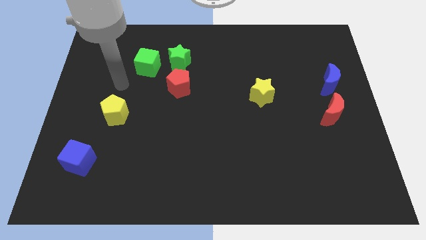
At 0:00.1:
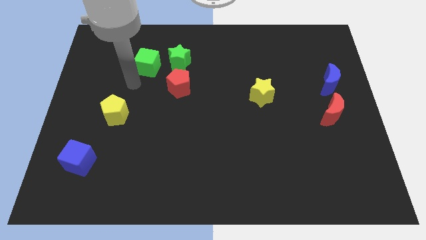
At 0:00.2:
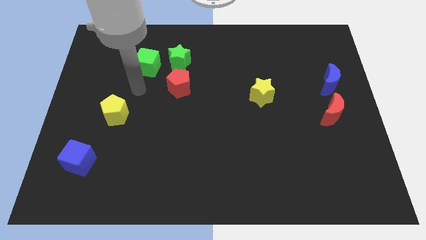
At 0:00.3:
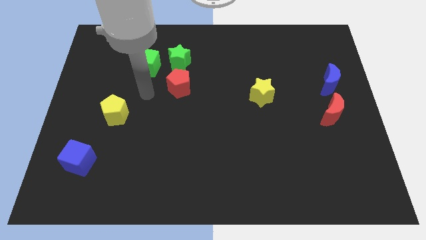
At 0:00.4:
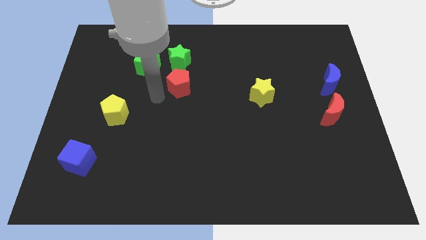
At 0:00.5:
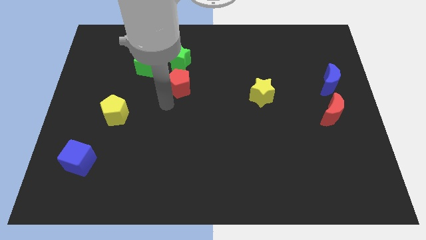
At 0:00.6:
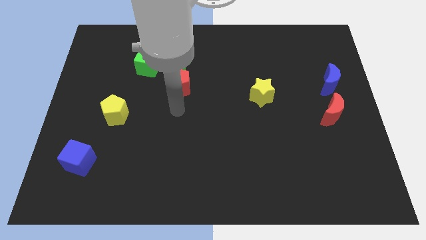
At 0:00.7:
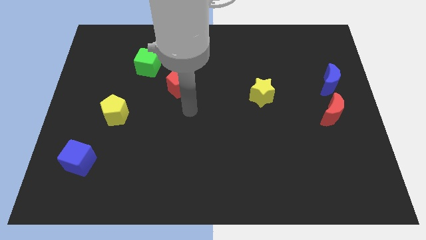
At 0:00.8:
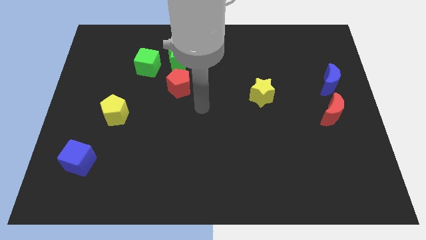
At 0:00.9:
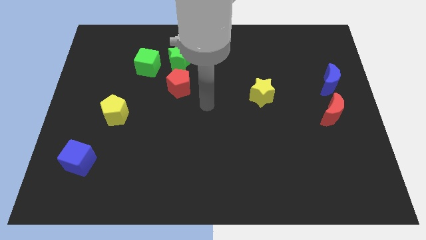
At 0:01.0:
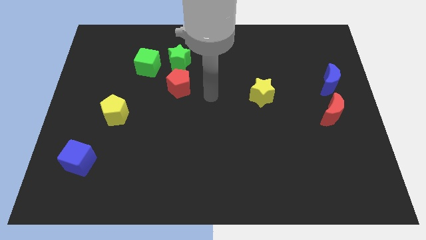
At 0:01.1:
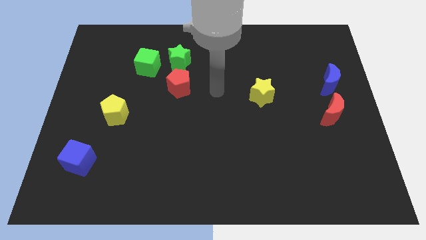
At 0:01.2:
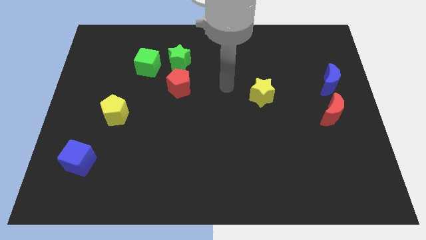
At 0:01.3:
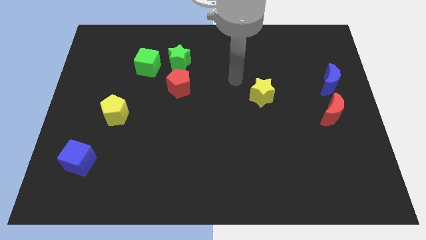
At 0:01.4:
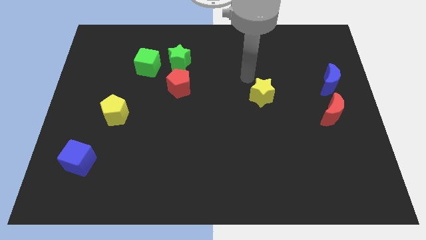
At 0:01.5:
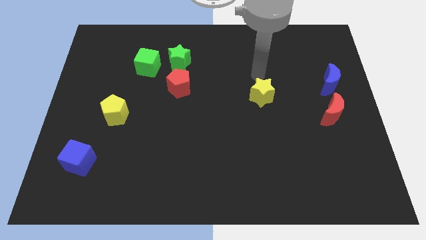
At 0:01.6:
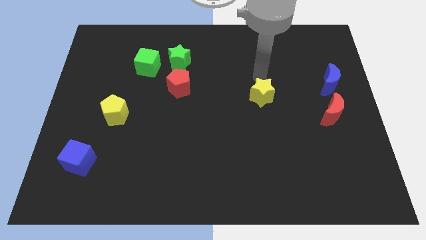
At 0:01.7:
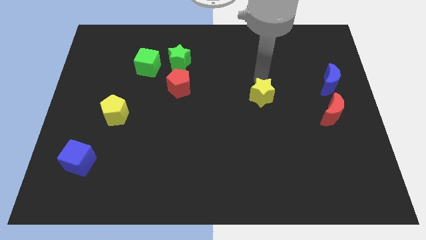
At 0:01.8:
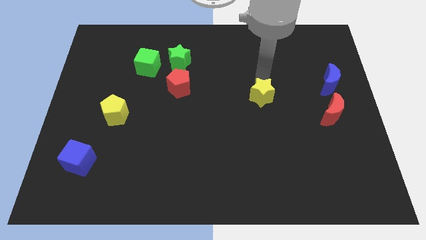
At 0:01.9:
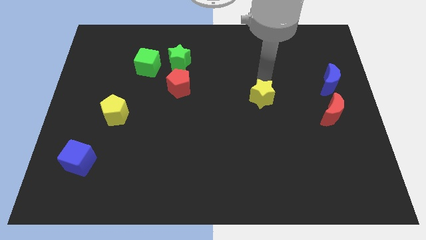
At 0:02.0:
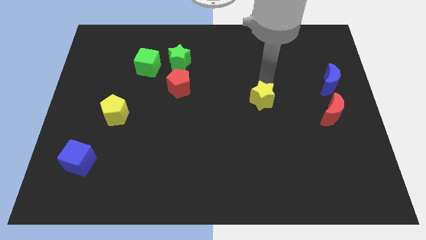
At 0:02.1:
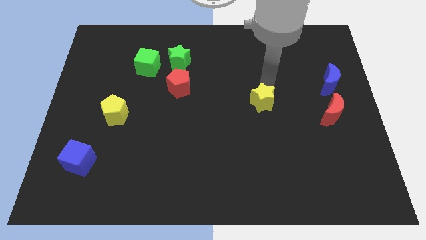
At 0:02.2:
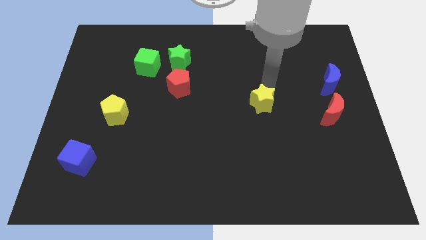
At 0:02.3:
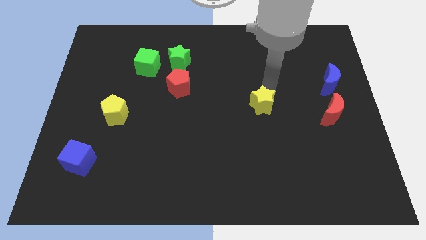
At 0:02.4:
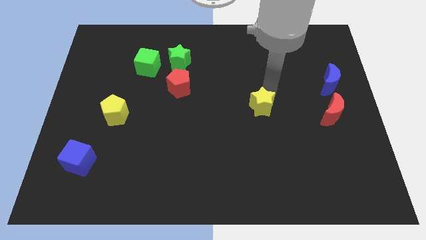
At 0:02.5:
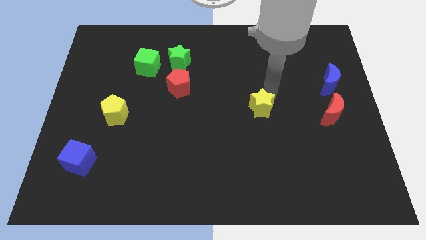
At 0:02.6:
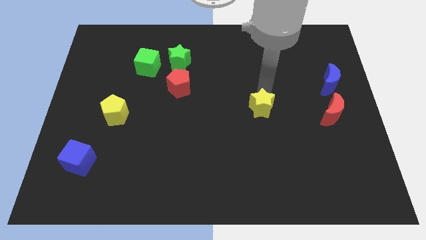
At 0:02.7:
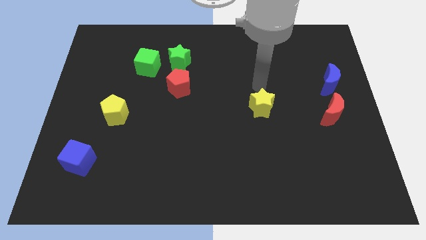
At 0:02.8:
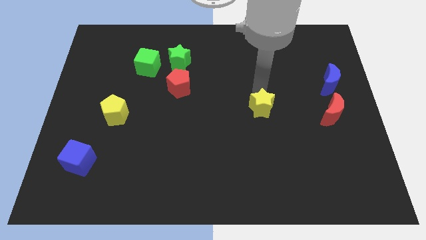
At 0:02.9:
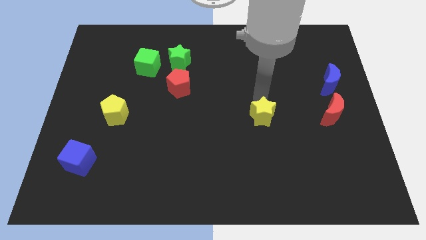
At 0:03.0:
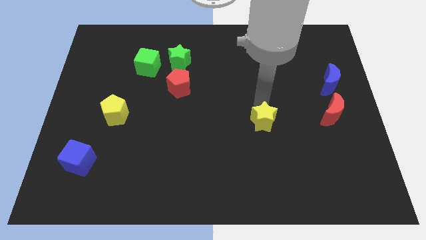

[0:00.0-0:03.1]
slide the yellow star downwards a bit

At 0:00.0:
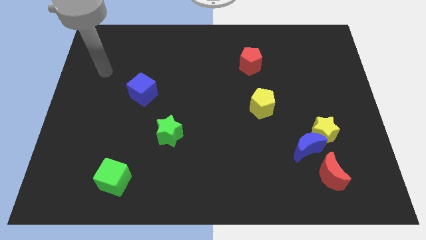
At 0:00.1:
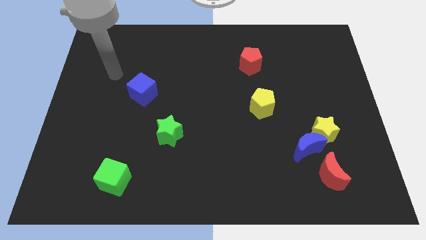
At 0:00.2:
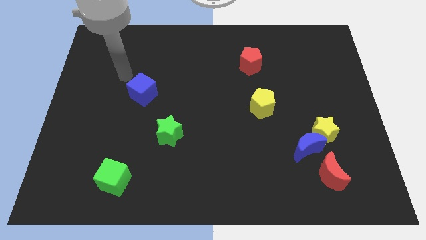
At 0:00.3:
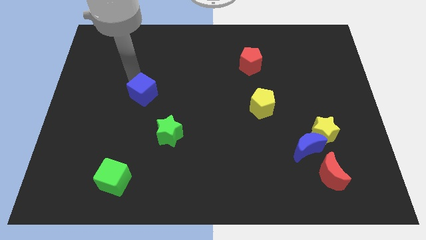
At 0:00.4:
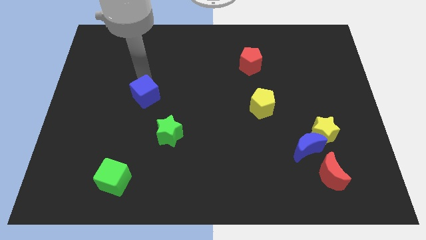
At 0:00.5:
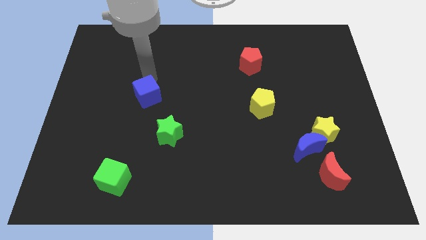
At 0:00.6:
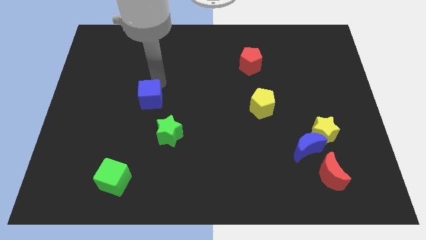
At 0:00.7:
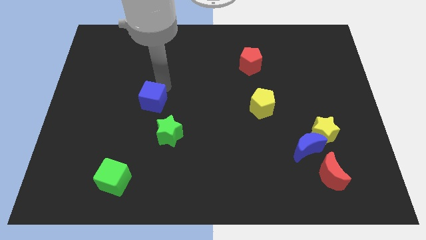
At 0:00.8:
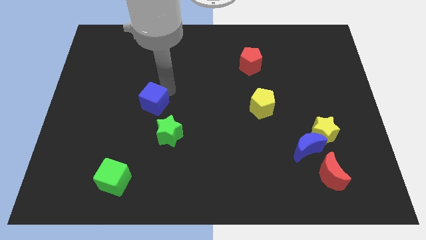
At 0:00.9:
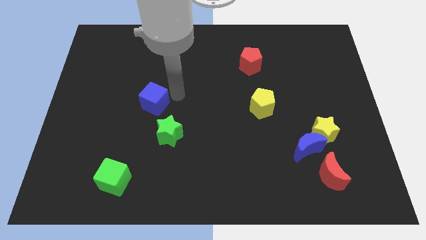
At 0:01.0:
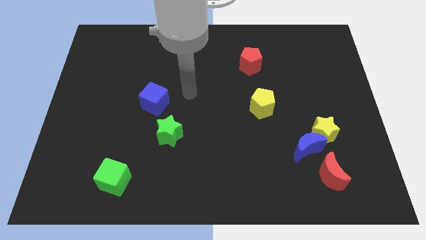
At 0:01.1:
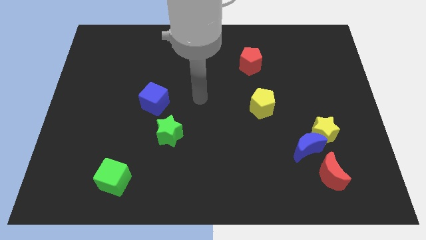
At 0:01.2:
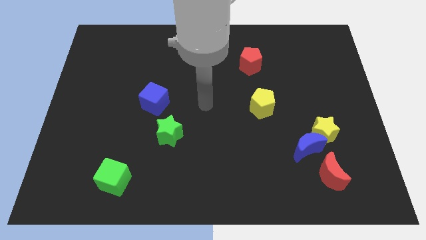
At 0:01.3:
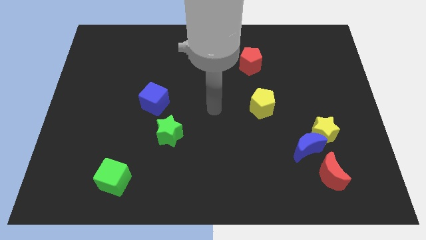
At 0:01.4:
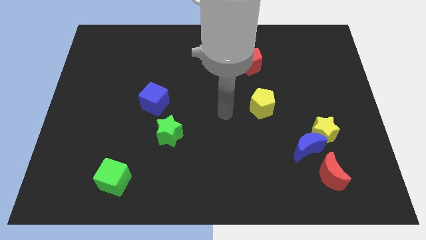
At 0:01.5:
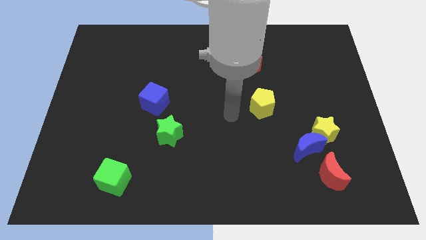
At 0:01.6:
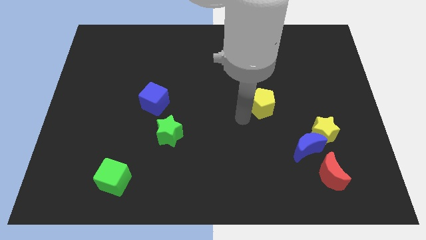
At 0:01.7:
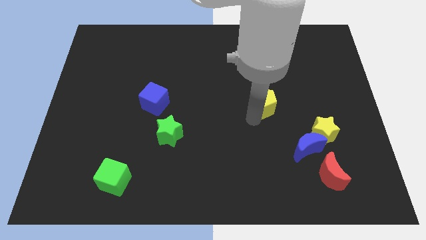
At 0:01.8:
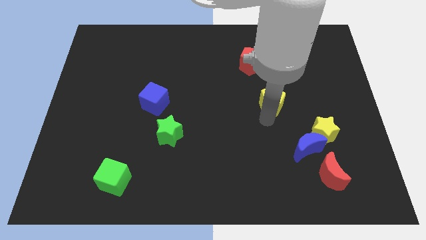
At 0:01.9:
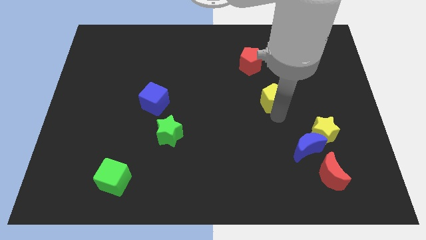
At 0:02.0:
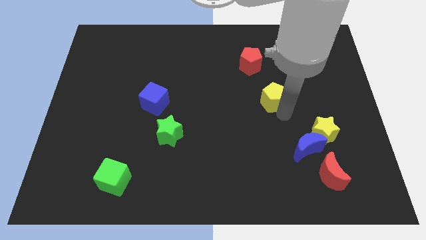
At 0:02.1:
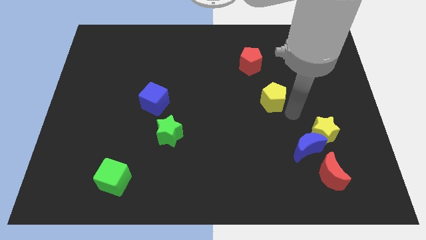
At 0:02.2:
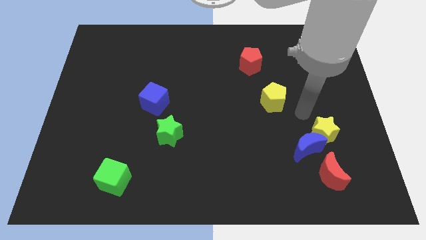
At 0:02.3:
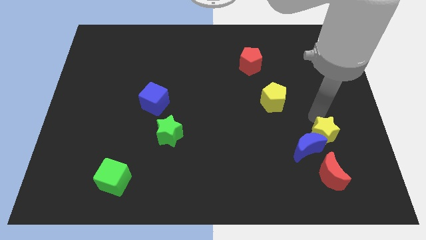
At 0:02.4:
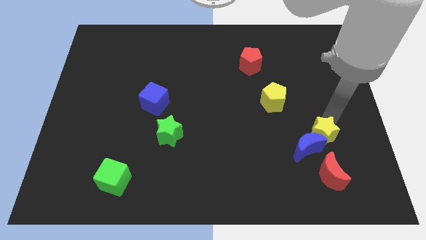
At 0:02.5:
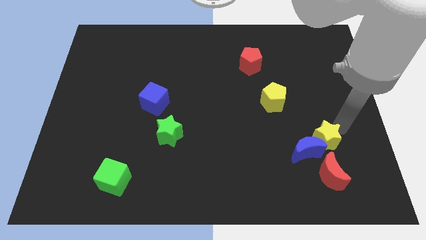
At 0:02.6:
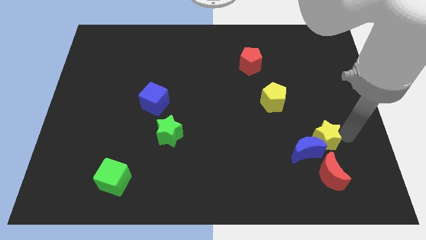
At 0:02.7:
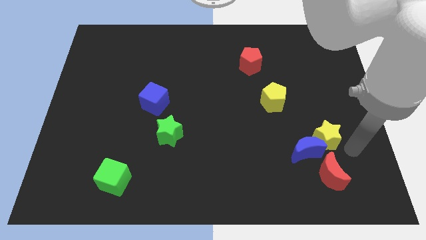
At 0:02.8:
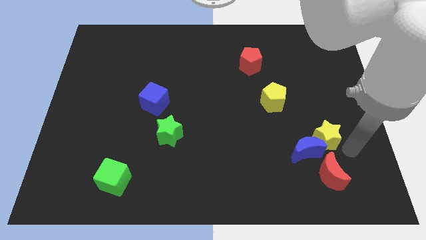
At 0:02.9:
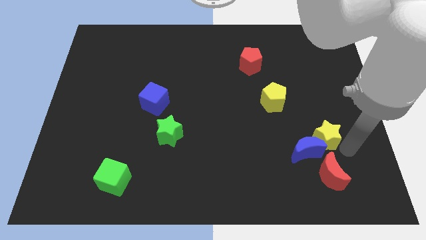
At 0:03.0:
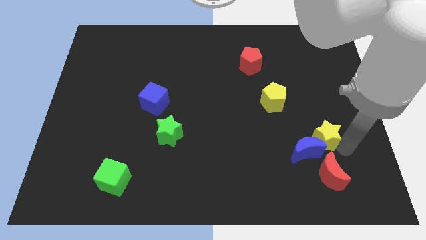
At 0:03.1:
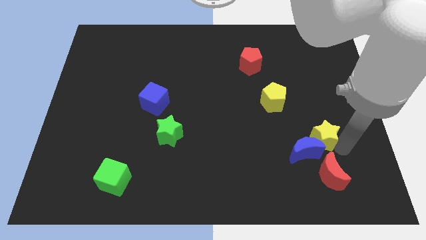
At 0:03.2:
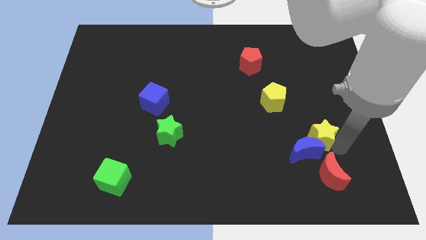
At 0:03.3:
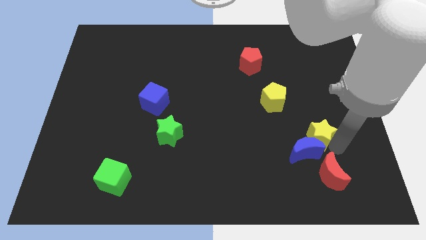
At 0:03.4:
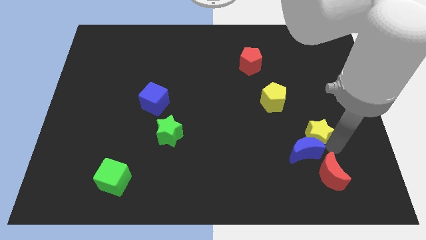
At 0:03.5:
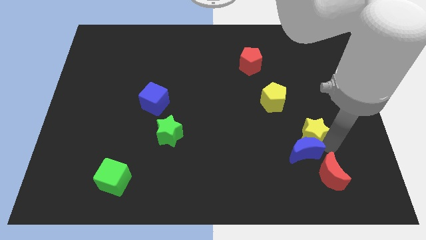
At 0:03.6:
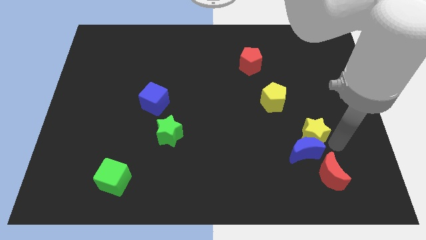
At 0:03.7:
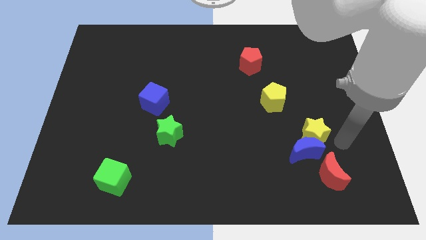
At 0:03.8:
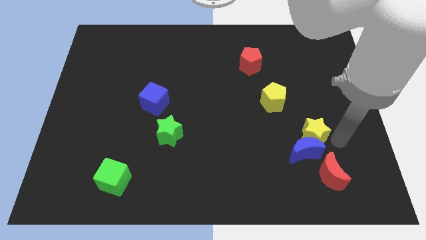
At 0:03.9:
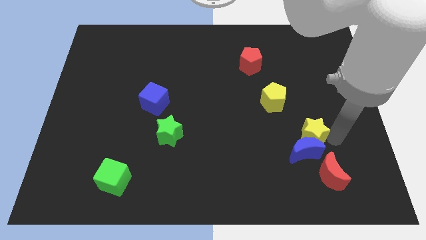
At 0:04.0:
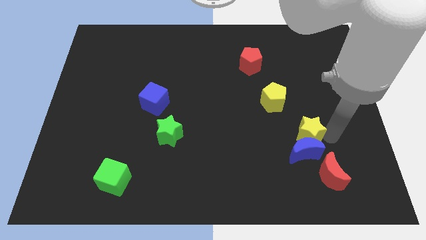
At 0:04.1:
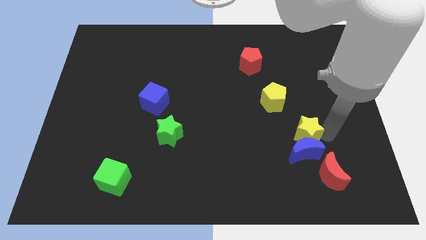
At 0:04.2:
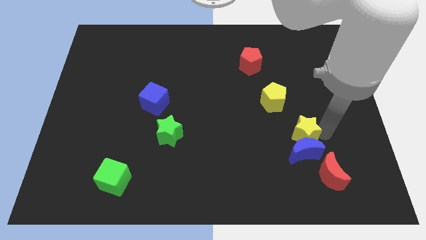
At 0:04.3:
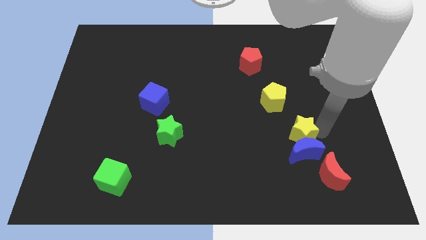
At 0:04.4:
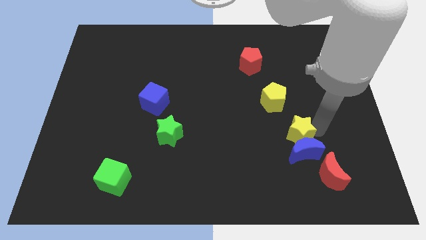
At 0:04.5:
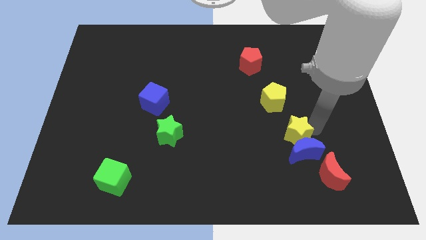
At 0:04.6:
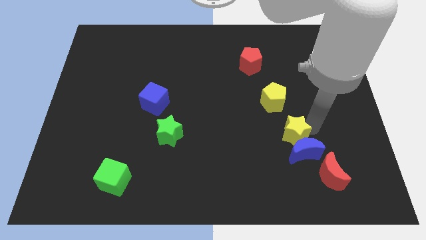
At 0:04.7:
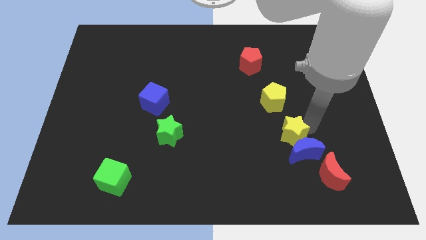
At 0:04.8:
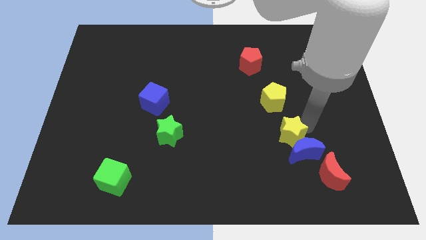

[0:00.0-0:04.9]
slide the yellow star to the left slightly

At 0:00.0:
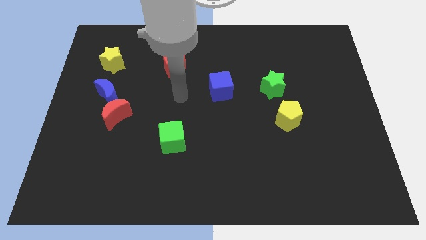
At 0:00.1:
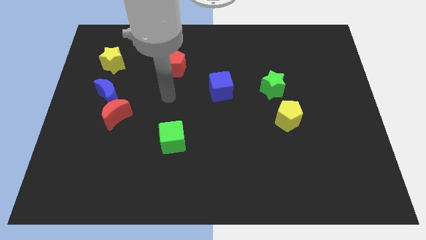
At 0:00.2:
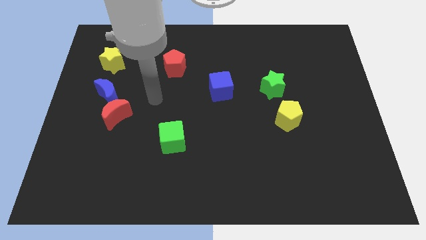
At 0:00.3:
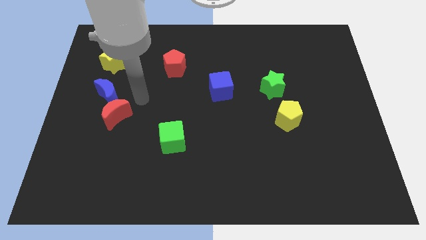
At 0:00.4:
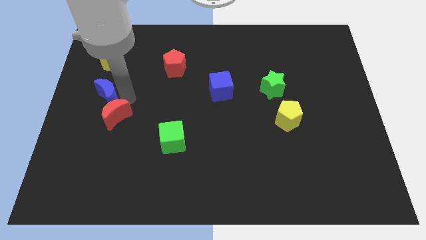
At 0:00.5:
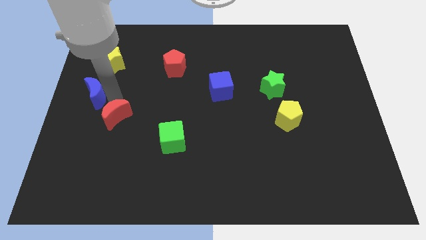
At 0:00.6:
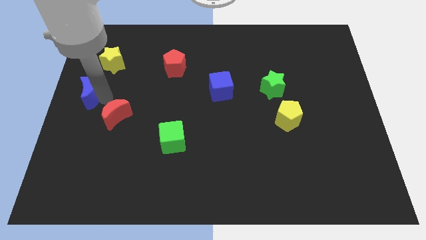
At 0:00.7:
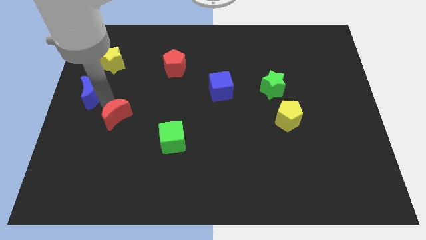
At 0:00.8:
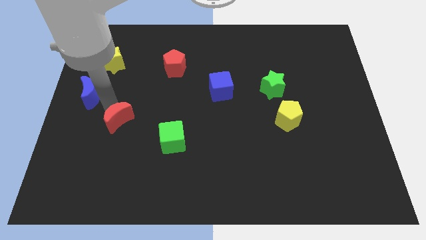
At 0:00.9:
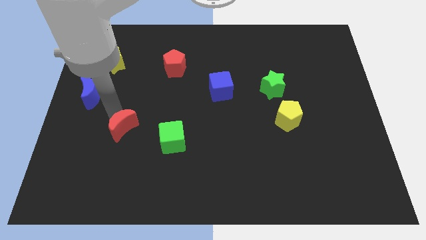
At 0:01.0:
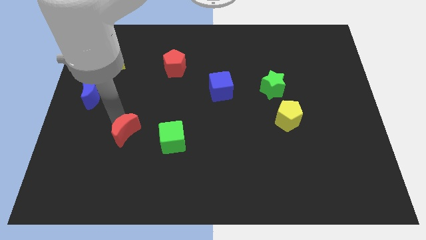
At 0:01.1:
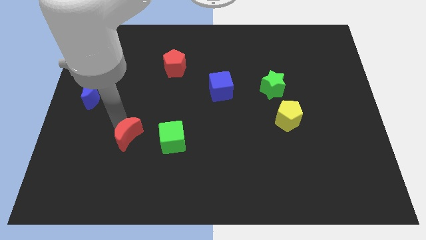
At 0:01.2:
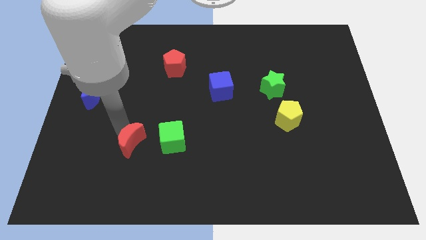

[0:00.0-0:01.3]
slightly slide the red moon diagonally downwards and to the right
